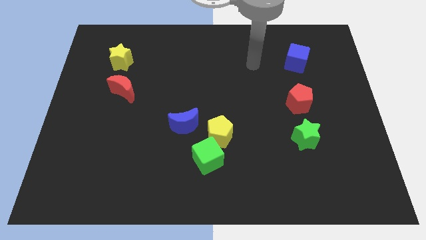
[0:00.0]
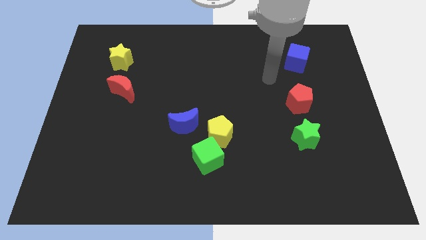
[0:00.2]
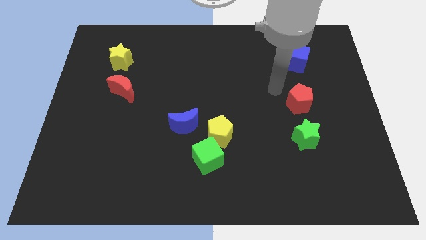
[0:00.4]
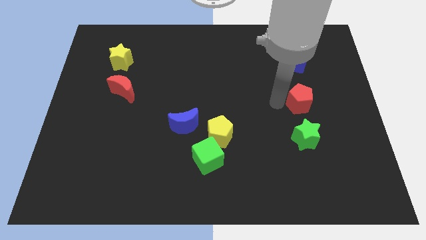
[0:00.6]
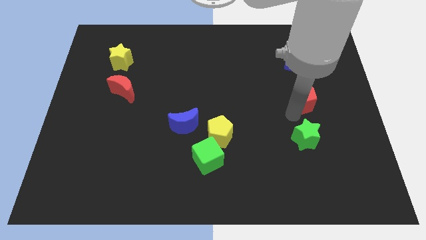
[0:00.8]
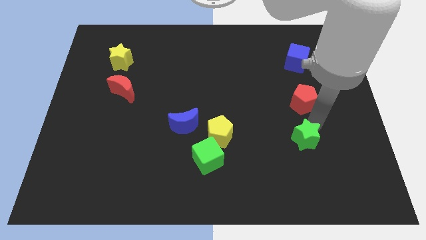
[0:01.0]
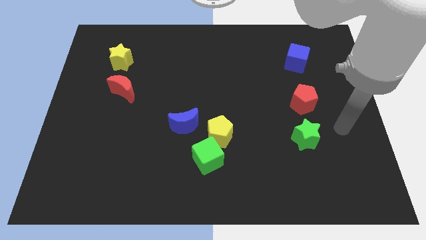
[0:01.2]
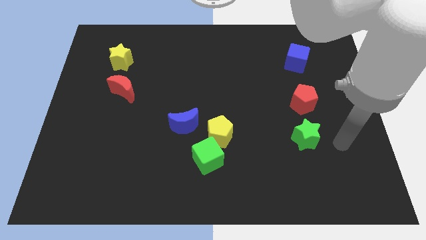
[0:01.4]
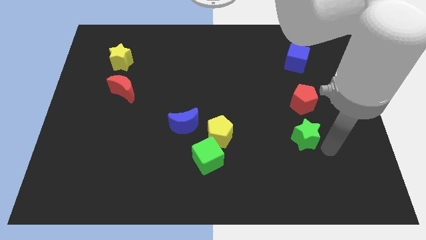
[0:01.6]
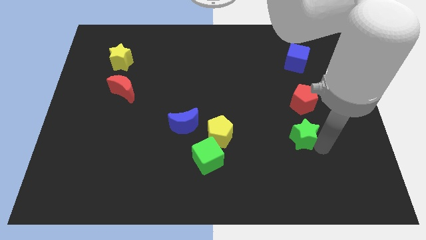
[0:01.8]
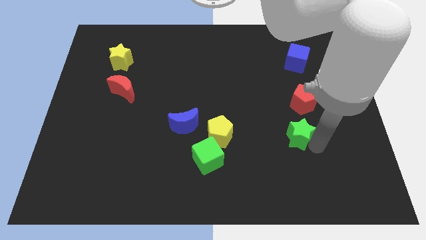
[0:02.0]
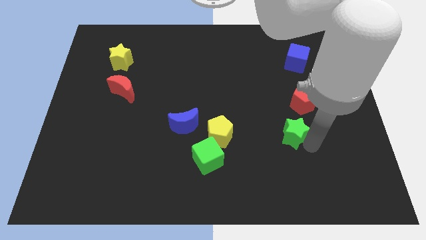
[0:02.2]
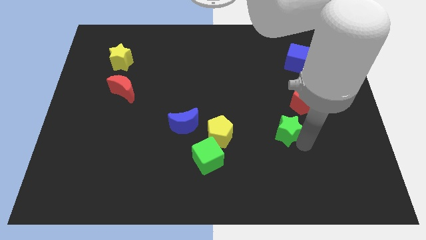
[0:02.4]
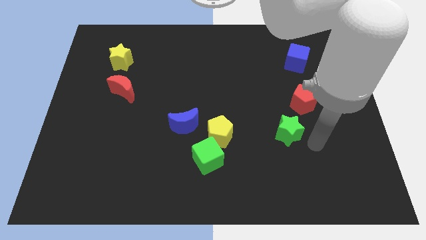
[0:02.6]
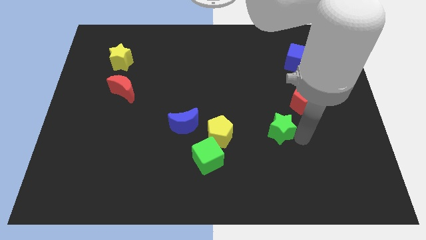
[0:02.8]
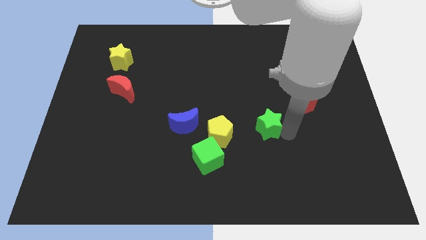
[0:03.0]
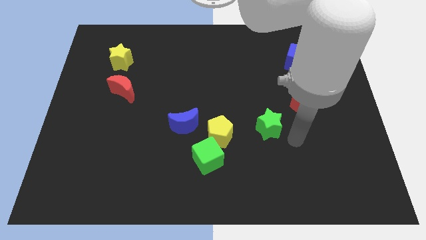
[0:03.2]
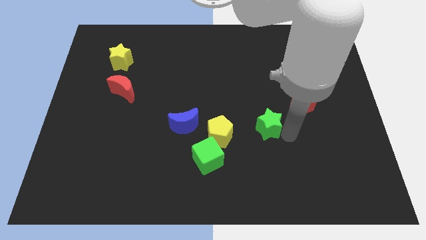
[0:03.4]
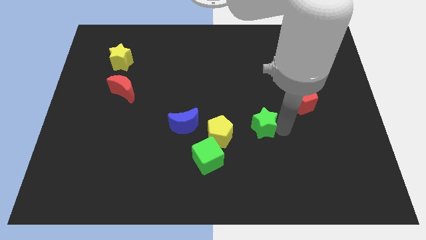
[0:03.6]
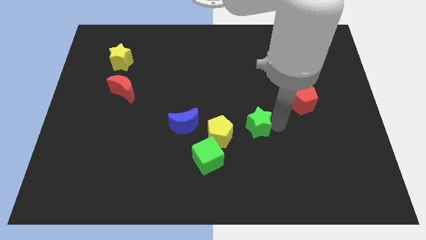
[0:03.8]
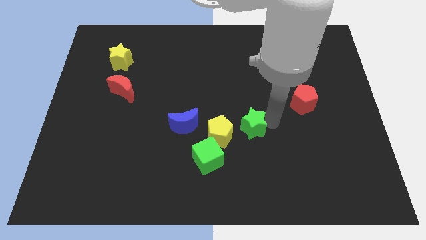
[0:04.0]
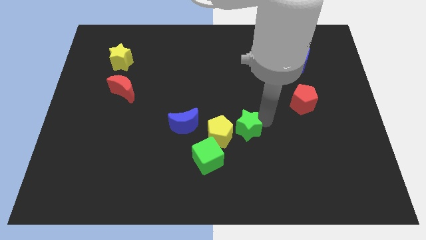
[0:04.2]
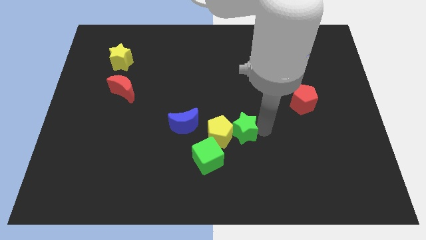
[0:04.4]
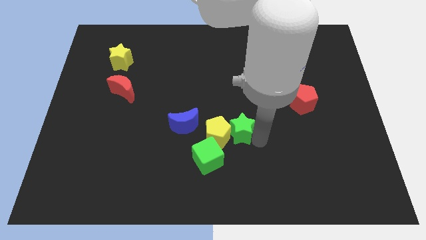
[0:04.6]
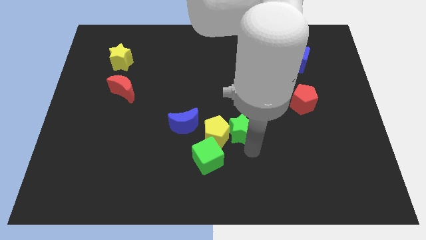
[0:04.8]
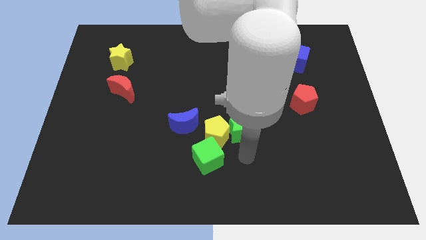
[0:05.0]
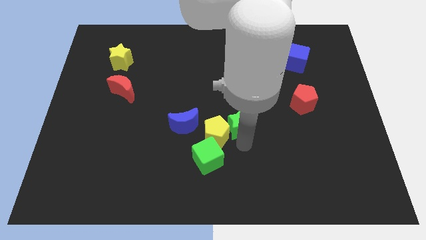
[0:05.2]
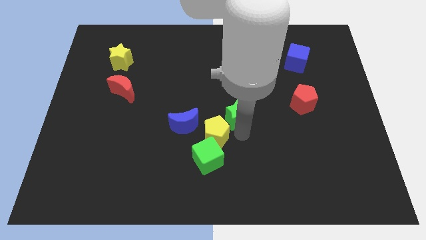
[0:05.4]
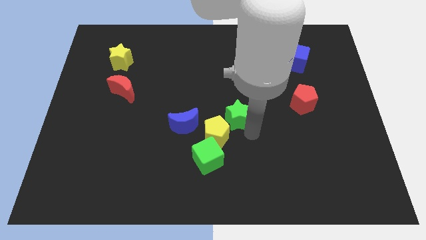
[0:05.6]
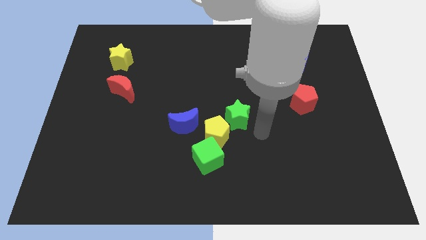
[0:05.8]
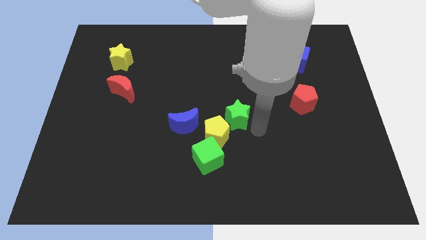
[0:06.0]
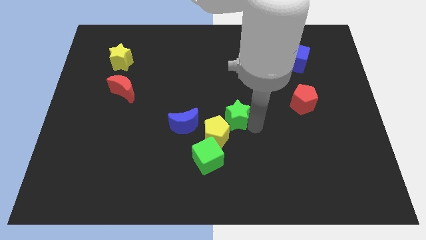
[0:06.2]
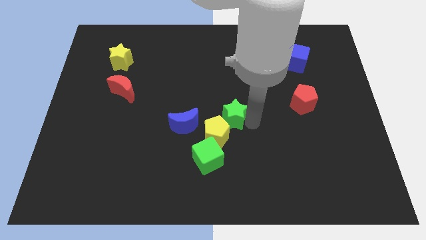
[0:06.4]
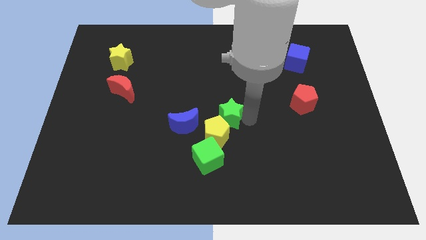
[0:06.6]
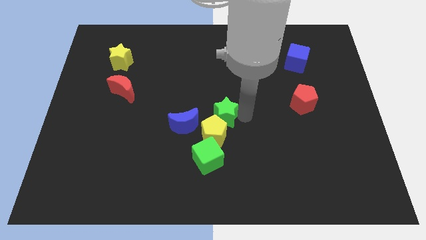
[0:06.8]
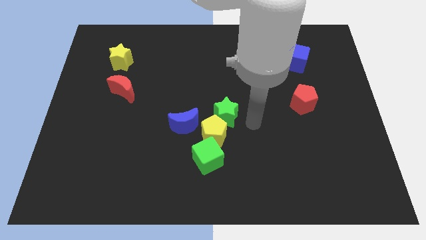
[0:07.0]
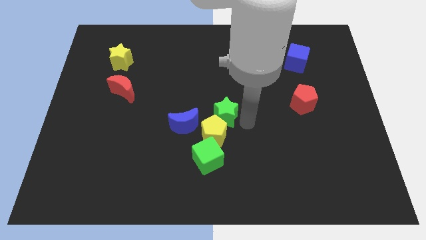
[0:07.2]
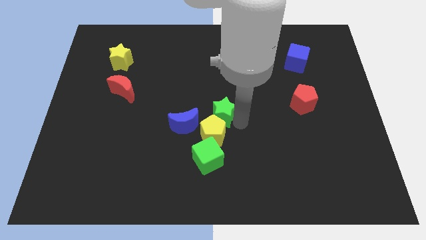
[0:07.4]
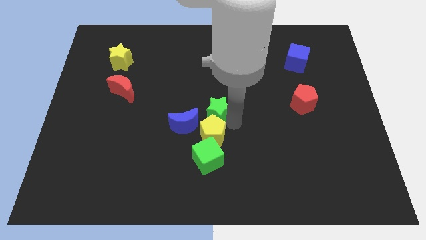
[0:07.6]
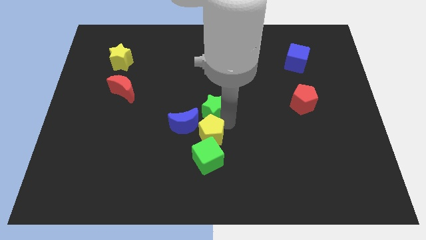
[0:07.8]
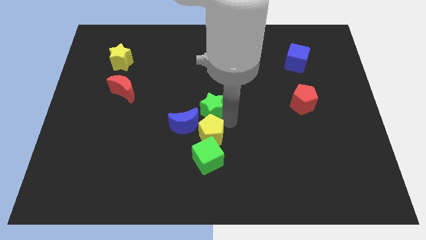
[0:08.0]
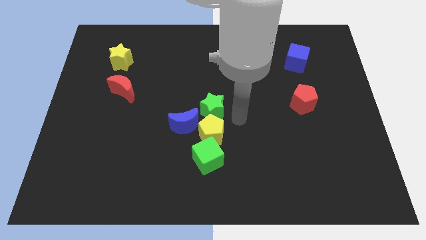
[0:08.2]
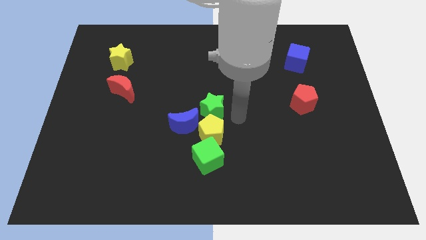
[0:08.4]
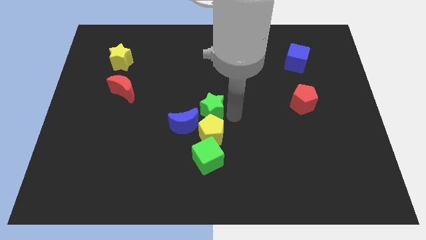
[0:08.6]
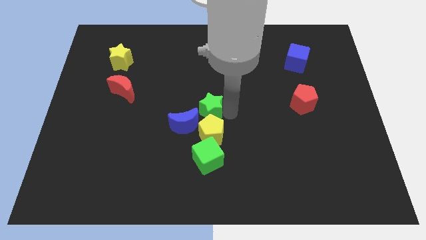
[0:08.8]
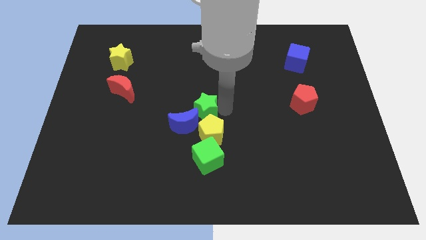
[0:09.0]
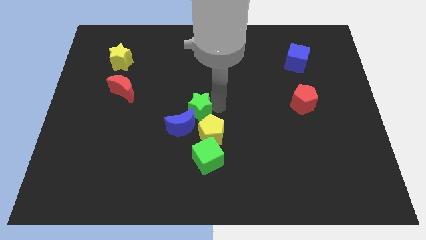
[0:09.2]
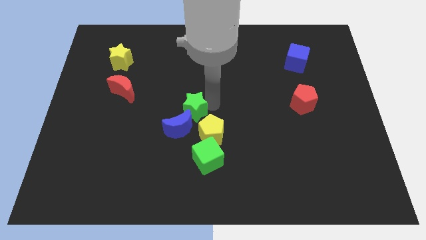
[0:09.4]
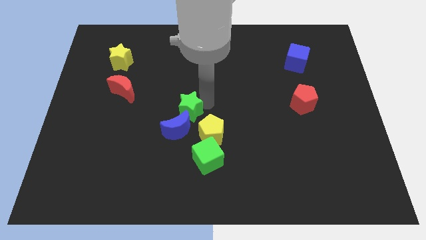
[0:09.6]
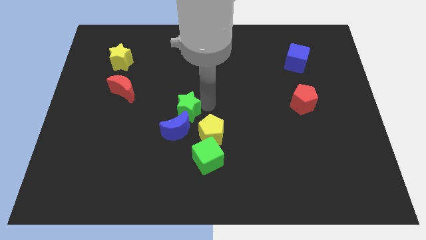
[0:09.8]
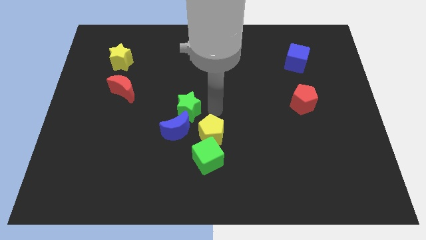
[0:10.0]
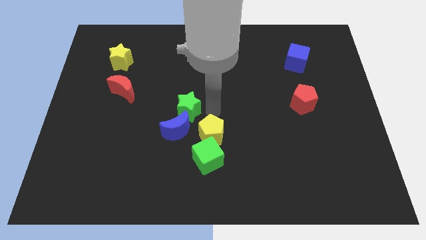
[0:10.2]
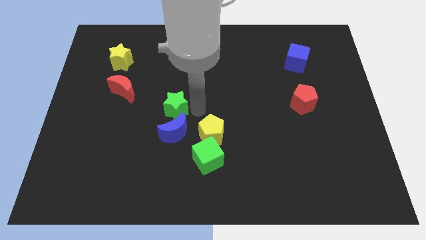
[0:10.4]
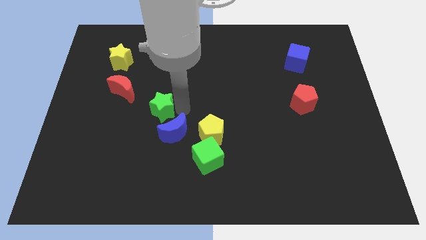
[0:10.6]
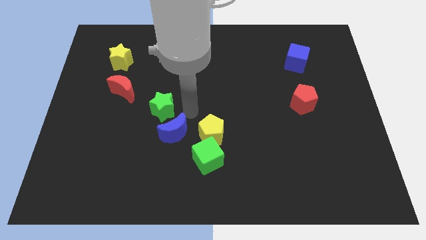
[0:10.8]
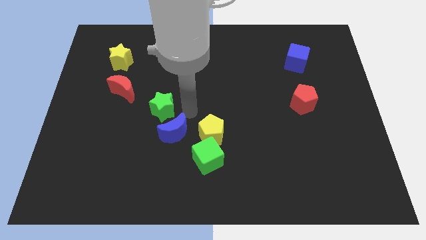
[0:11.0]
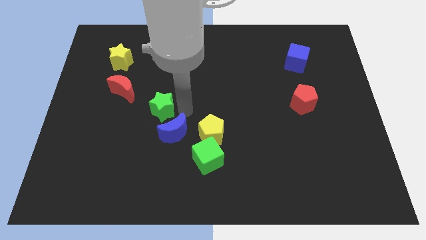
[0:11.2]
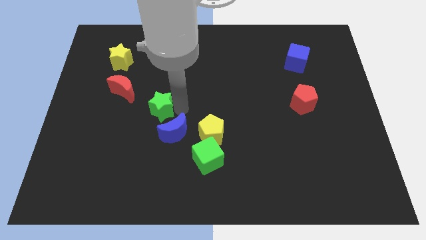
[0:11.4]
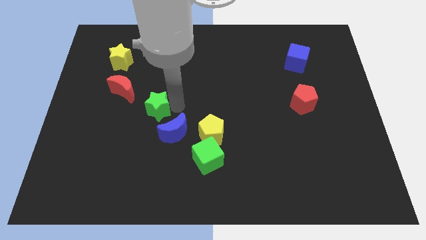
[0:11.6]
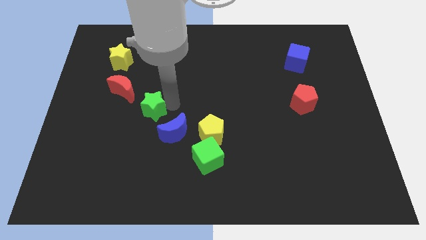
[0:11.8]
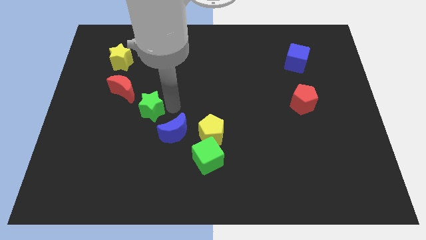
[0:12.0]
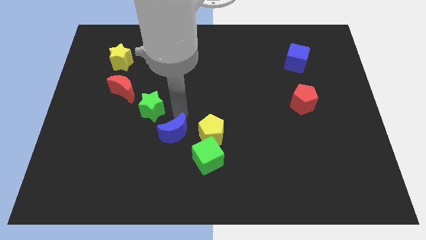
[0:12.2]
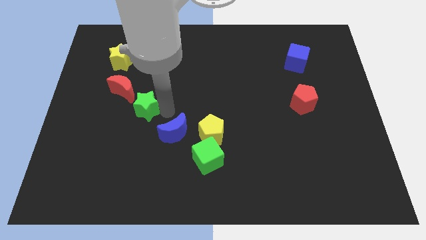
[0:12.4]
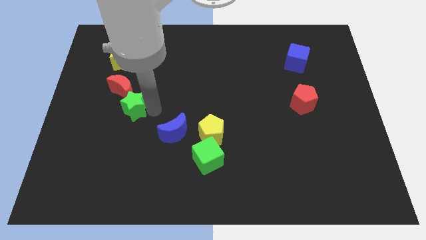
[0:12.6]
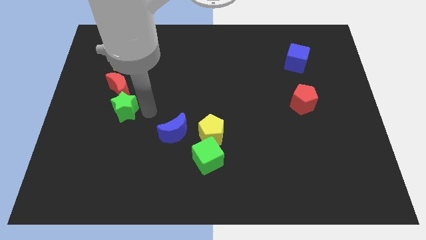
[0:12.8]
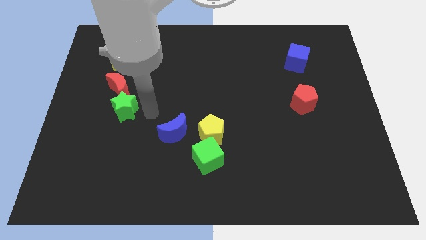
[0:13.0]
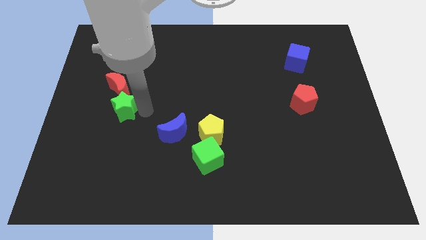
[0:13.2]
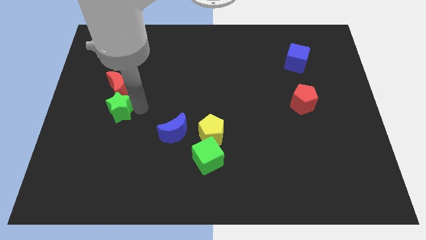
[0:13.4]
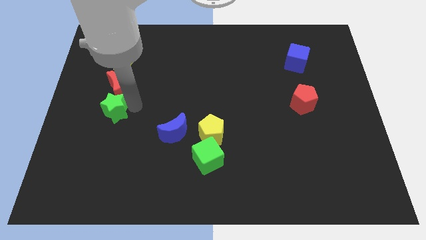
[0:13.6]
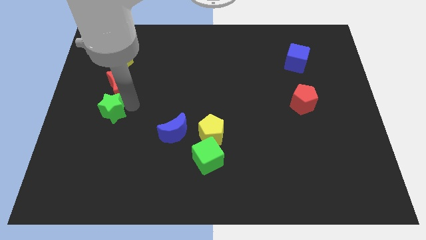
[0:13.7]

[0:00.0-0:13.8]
slide the green star diagonally down and to the left of the red moon

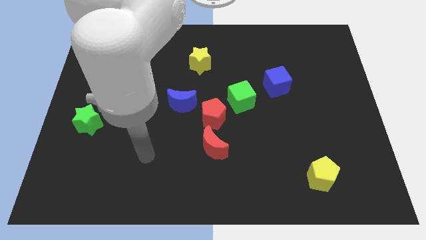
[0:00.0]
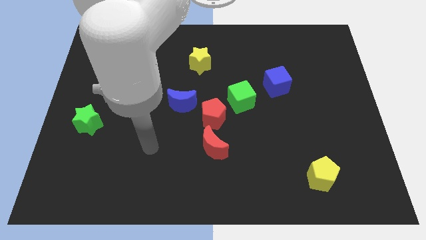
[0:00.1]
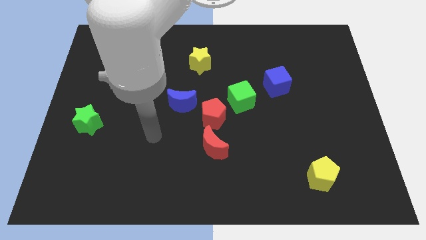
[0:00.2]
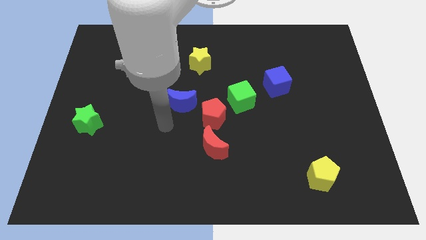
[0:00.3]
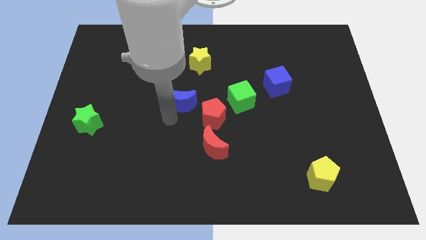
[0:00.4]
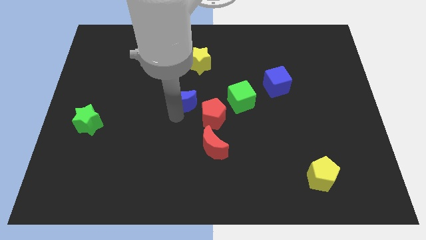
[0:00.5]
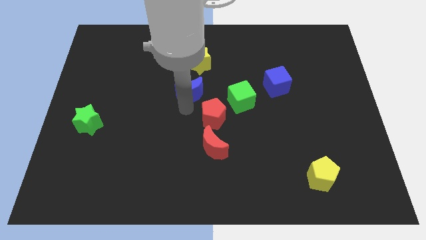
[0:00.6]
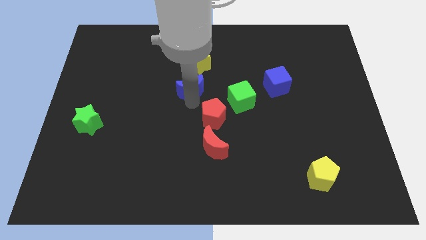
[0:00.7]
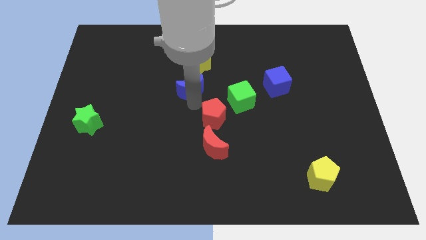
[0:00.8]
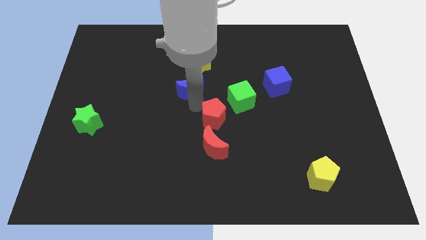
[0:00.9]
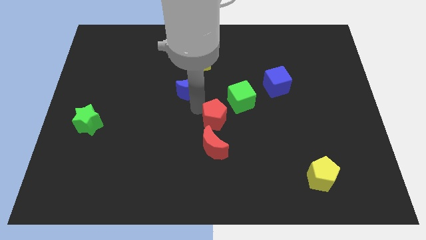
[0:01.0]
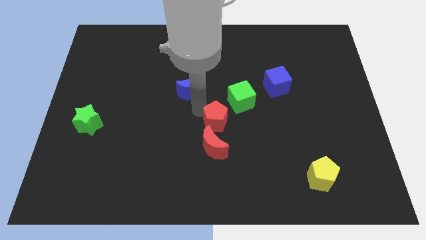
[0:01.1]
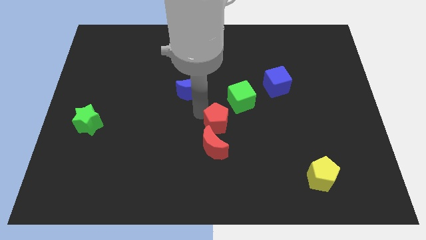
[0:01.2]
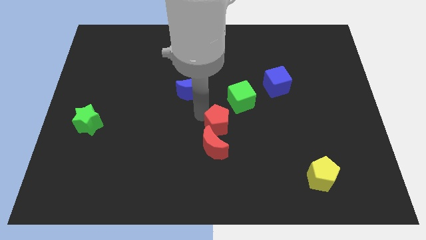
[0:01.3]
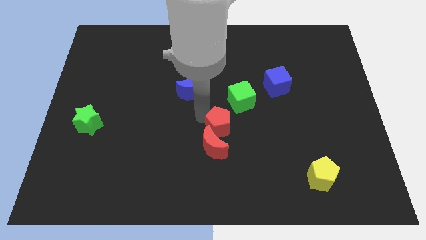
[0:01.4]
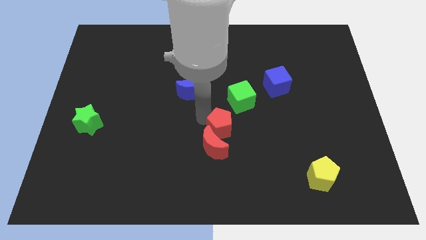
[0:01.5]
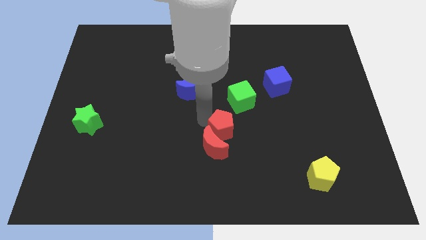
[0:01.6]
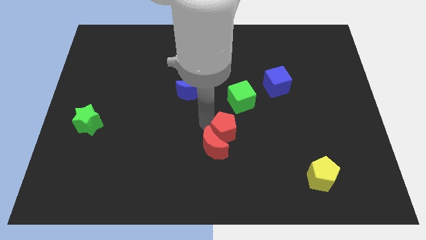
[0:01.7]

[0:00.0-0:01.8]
put the red pentagon to the right side of the red moon
